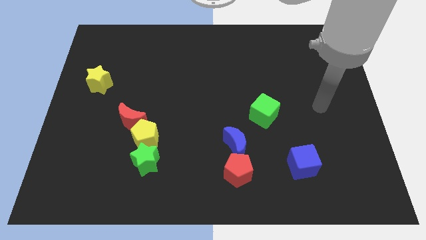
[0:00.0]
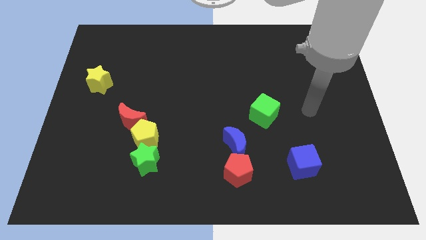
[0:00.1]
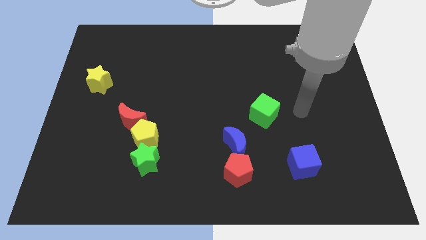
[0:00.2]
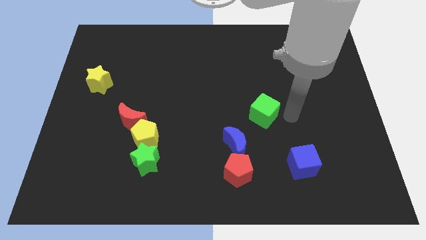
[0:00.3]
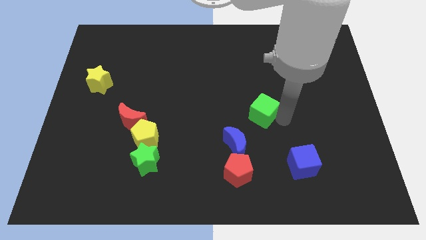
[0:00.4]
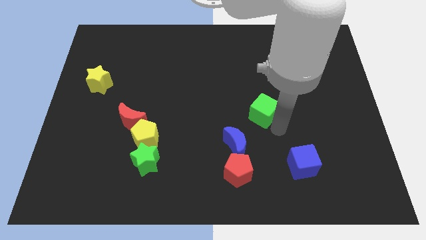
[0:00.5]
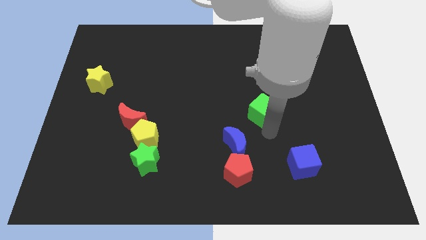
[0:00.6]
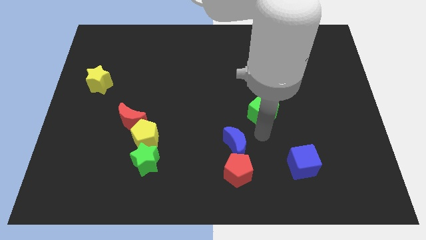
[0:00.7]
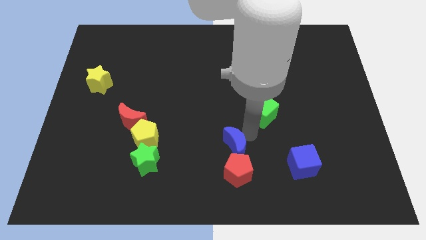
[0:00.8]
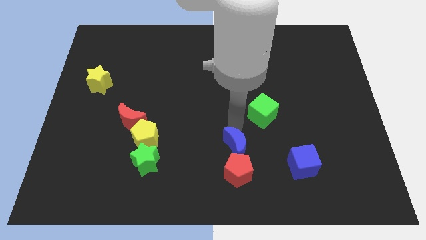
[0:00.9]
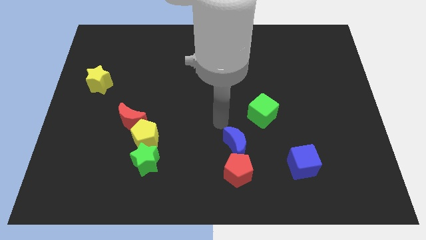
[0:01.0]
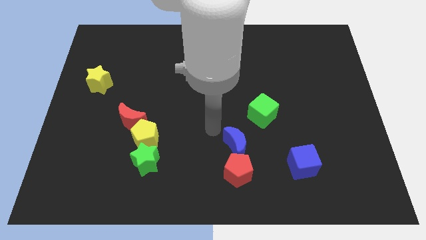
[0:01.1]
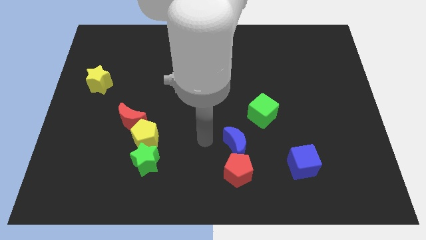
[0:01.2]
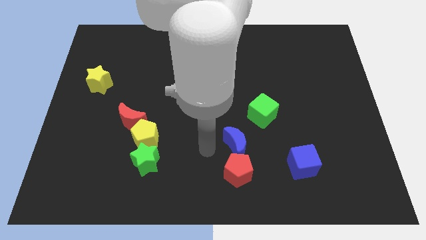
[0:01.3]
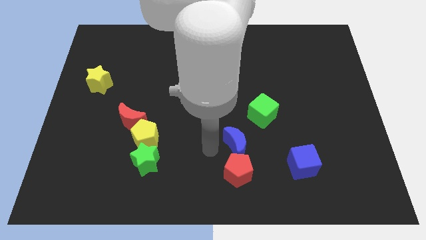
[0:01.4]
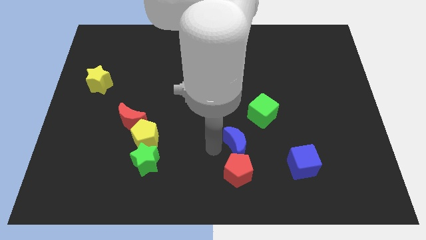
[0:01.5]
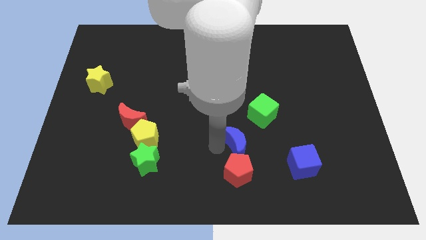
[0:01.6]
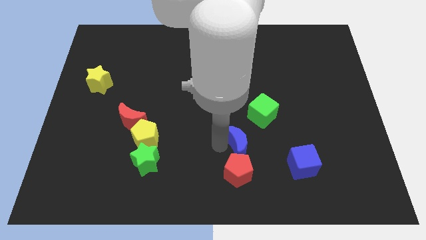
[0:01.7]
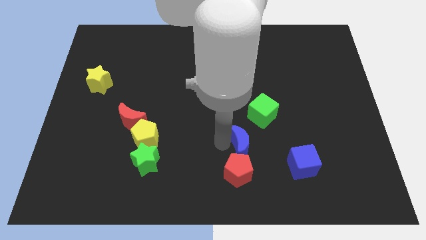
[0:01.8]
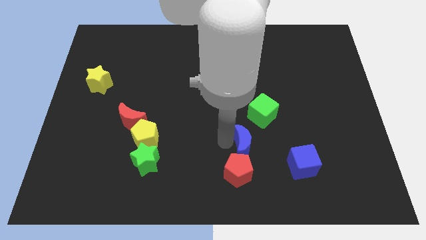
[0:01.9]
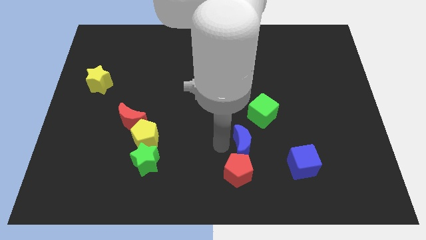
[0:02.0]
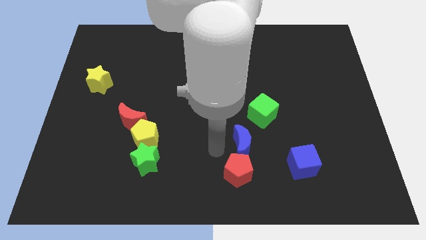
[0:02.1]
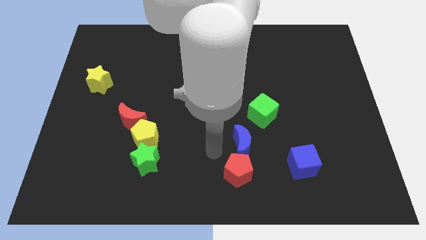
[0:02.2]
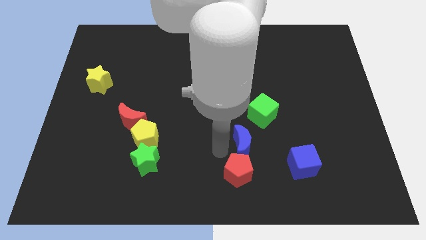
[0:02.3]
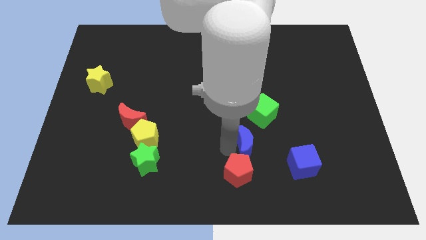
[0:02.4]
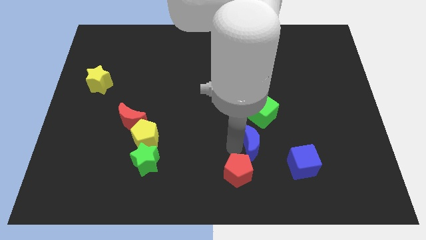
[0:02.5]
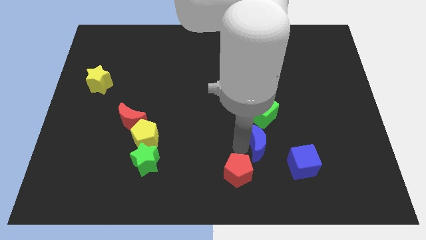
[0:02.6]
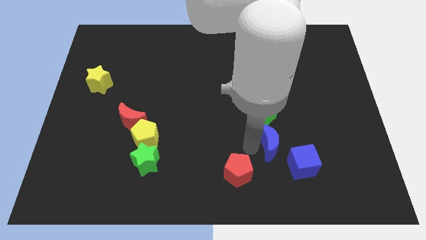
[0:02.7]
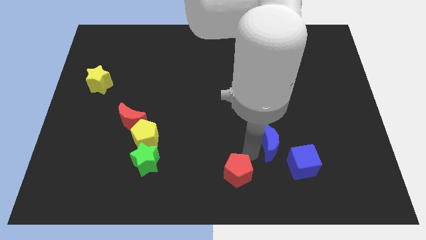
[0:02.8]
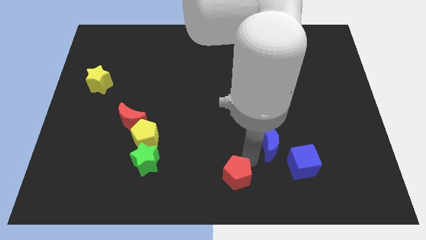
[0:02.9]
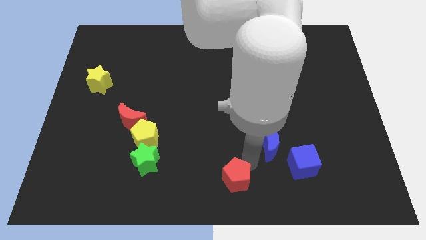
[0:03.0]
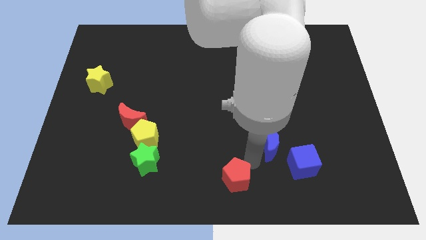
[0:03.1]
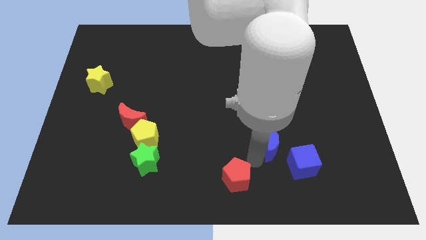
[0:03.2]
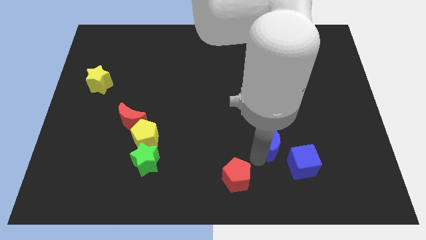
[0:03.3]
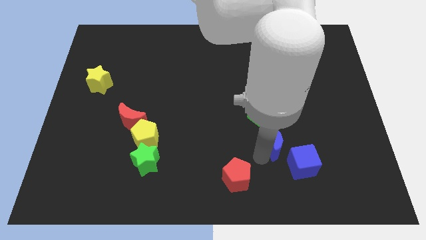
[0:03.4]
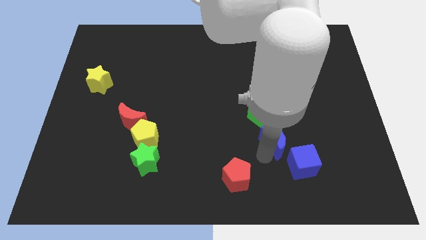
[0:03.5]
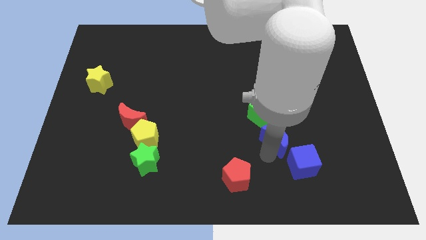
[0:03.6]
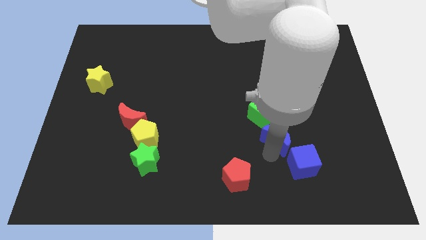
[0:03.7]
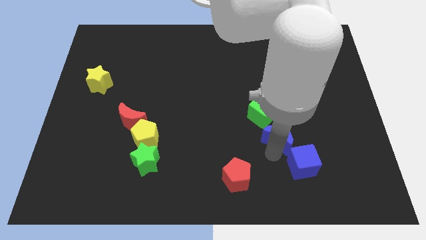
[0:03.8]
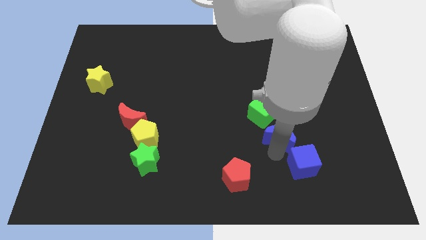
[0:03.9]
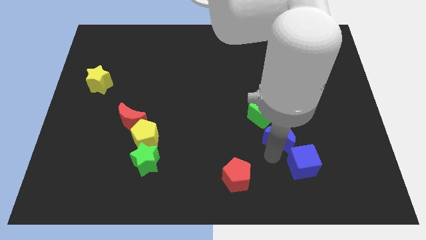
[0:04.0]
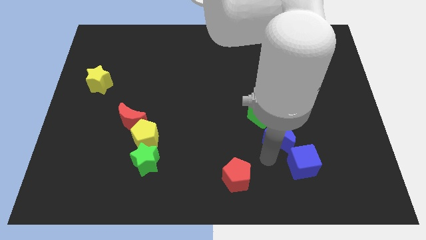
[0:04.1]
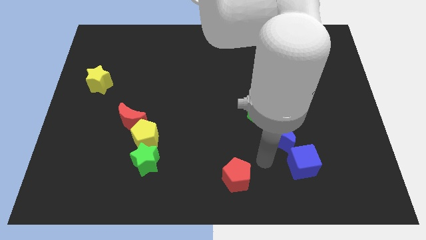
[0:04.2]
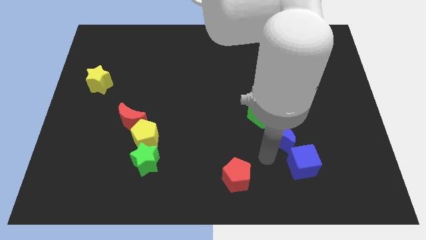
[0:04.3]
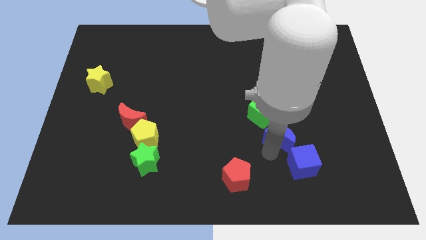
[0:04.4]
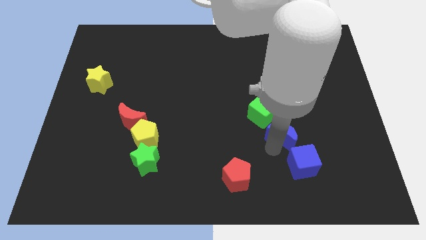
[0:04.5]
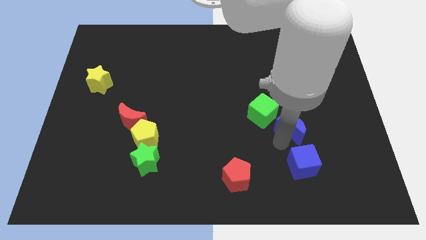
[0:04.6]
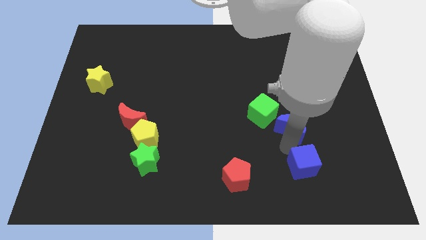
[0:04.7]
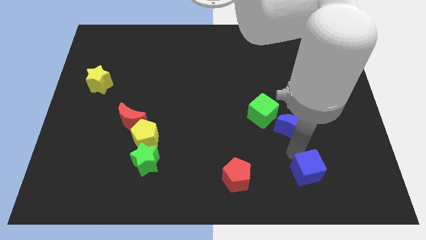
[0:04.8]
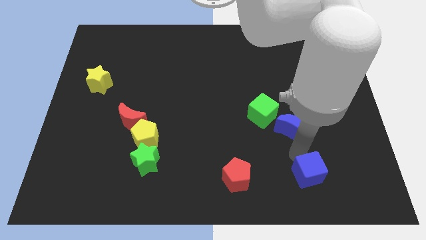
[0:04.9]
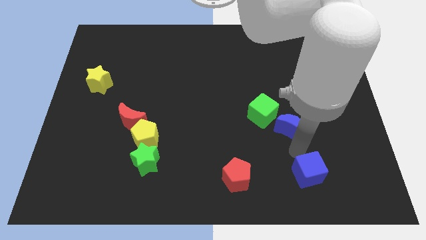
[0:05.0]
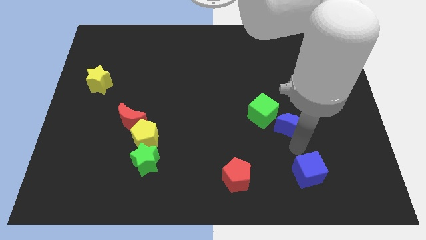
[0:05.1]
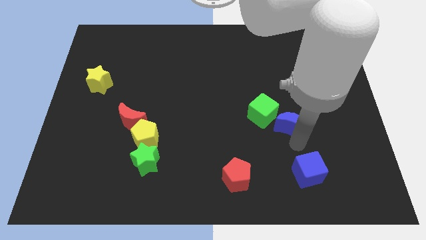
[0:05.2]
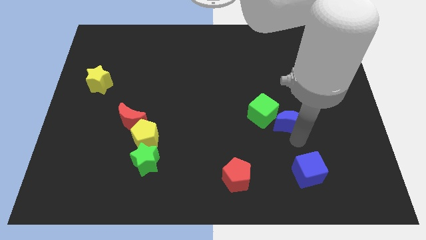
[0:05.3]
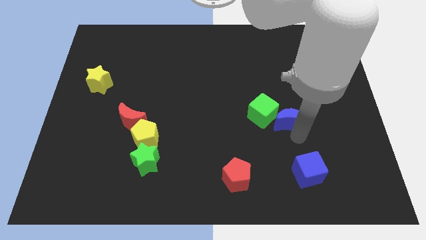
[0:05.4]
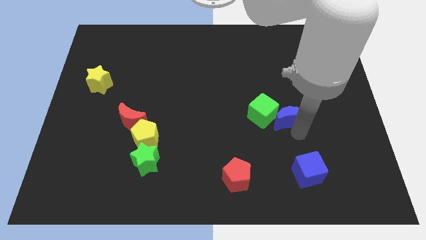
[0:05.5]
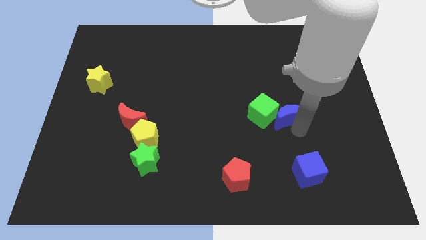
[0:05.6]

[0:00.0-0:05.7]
move the blue moon to the top right side of the green cube
